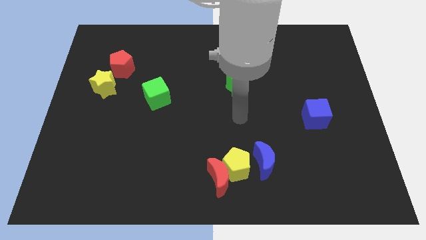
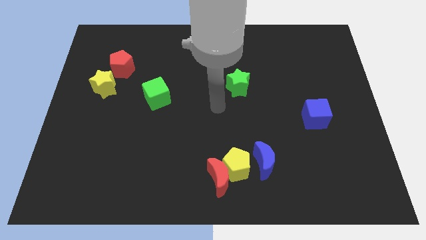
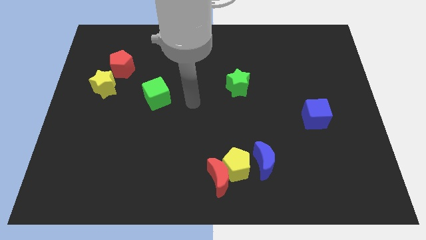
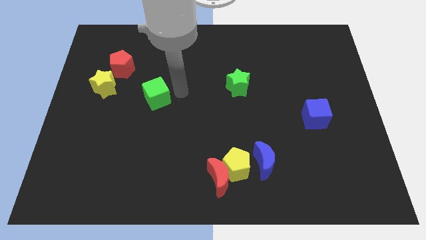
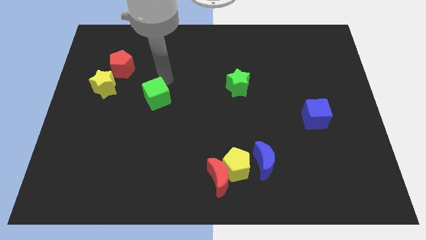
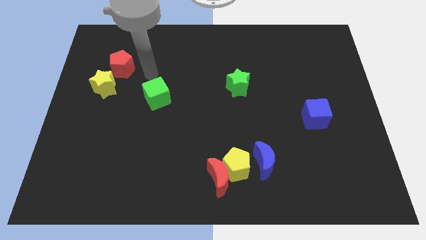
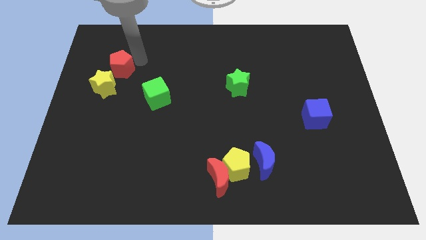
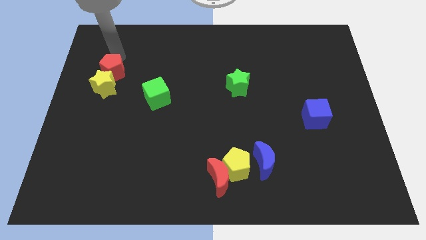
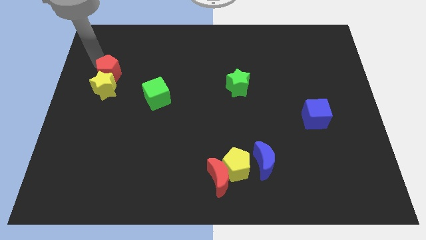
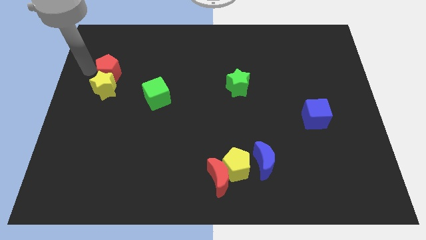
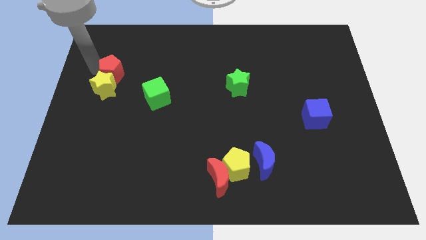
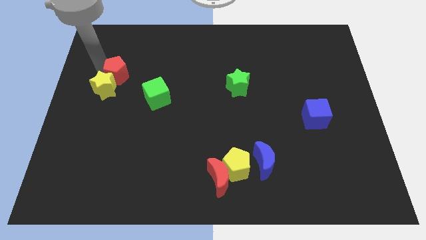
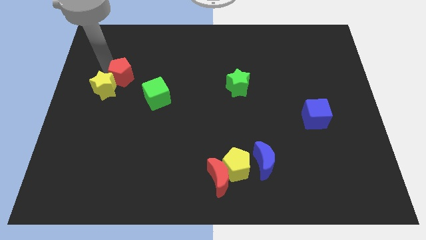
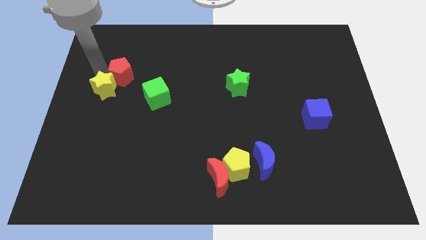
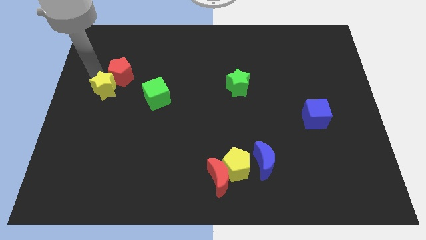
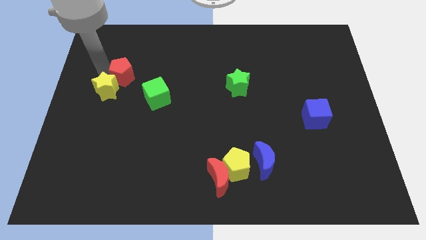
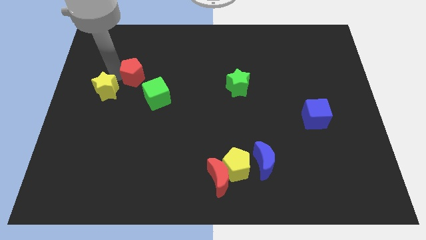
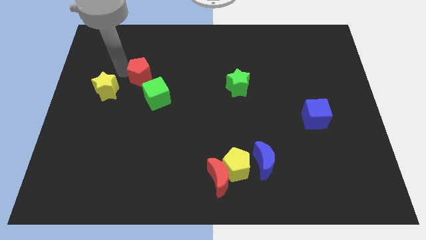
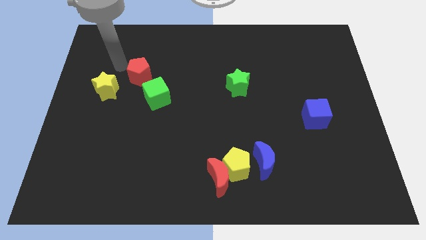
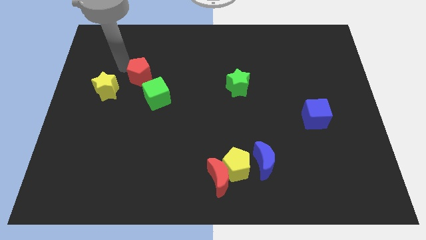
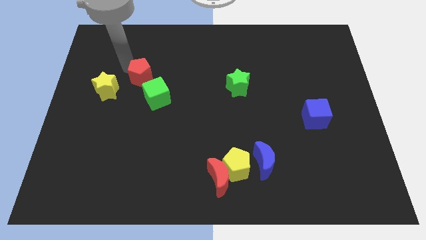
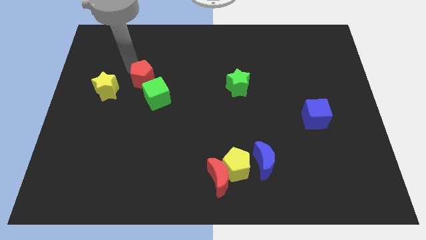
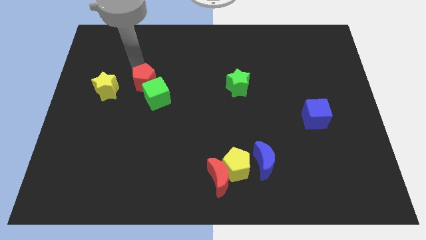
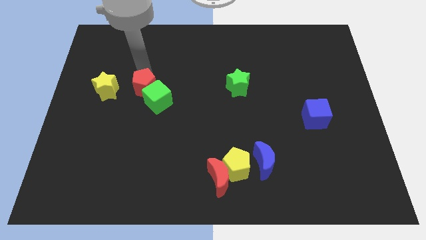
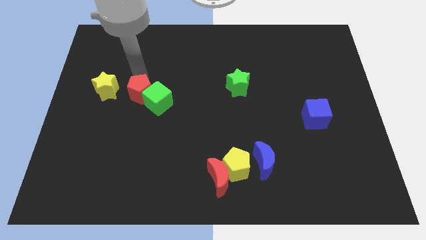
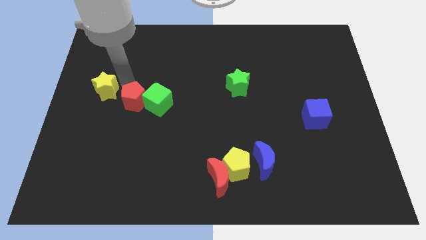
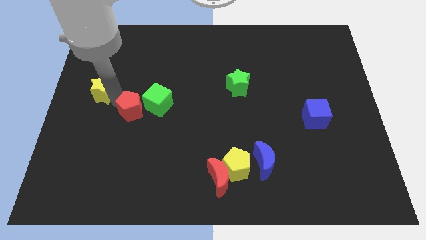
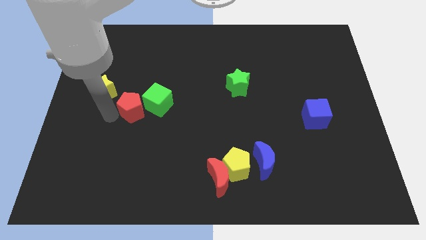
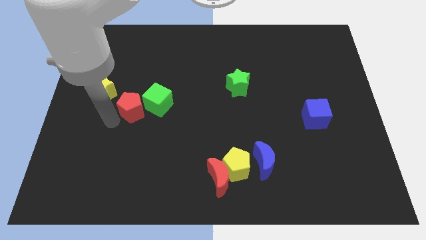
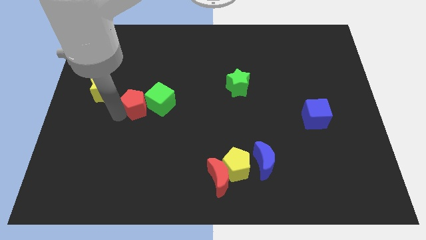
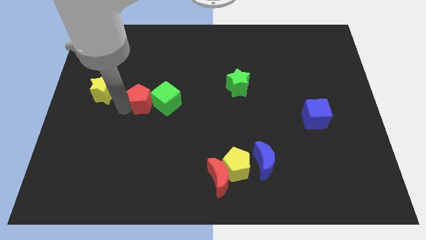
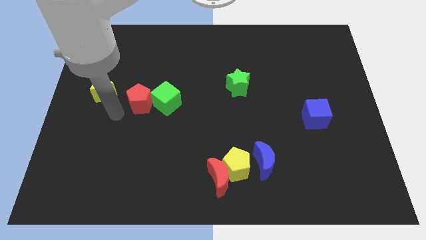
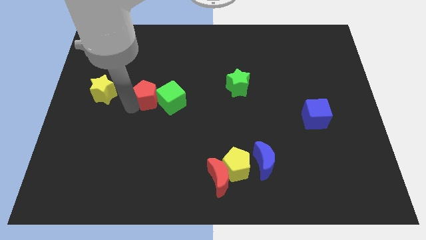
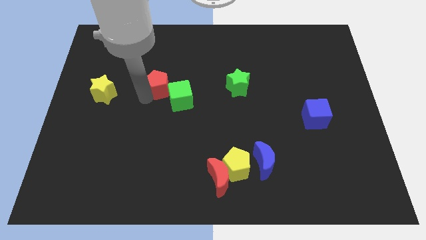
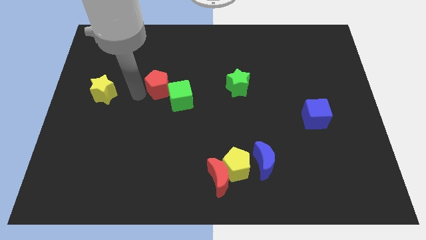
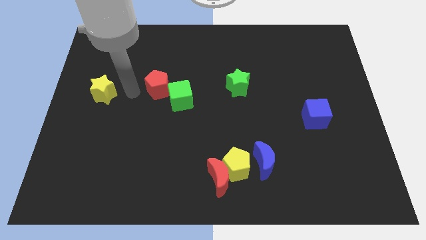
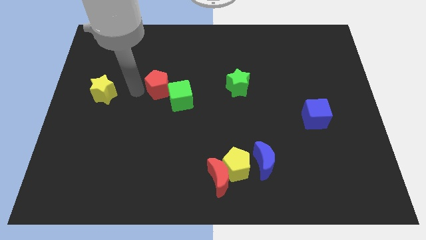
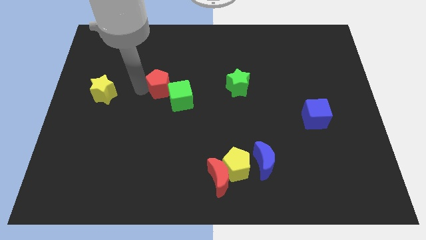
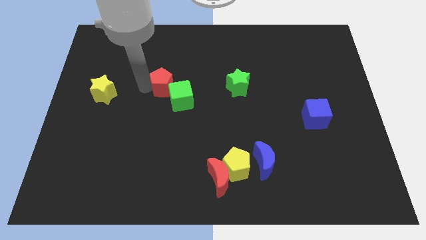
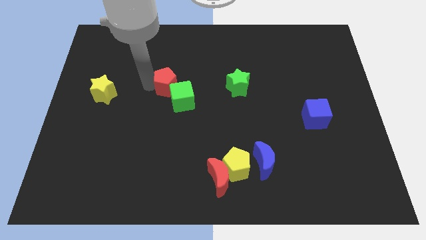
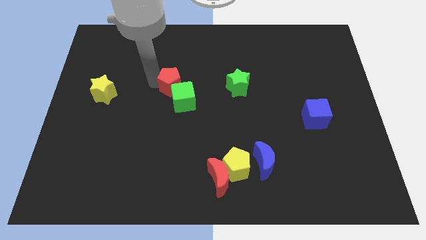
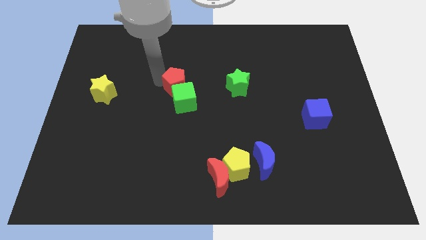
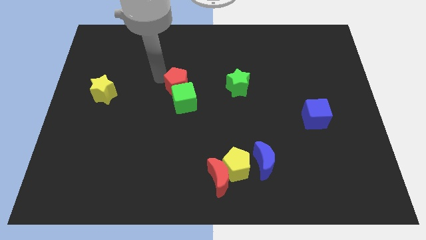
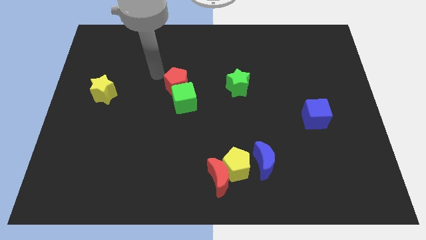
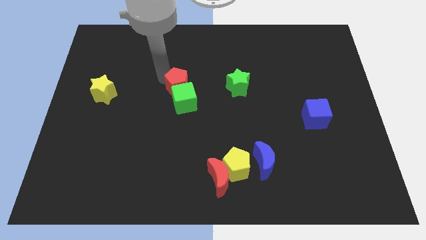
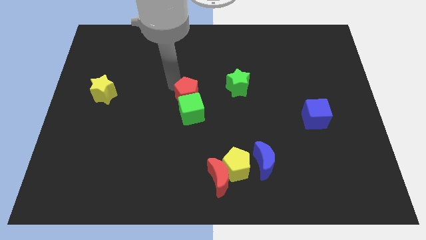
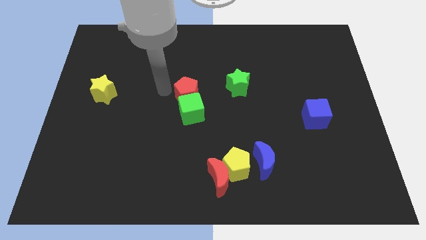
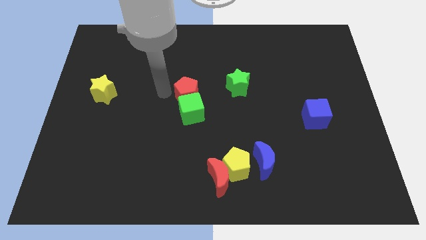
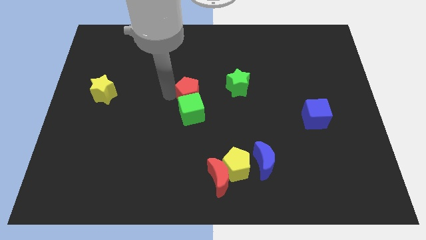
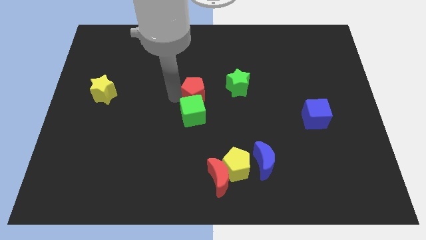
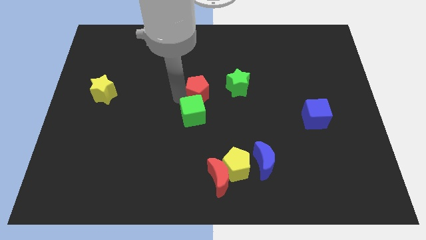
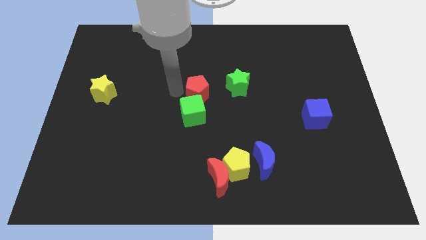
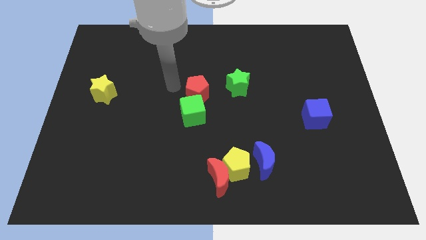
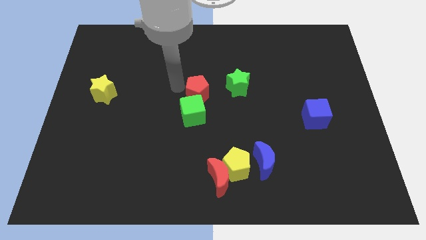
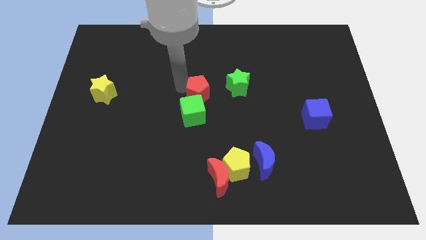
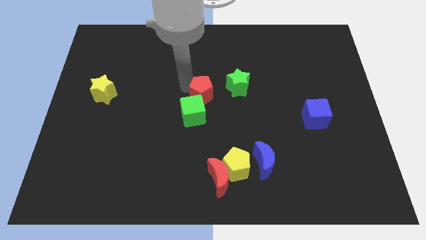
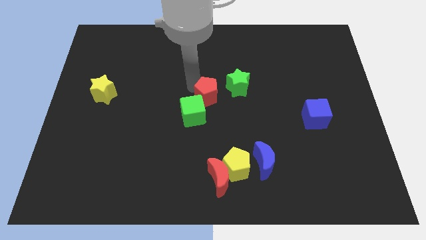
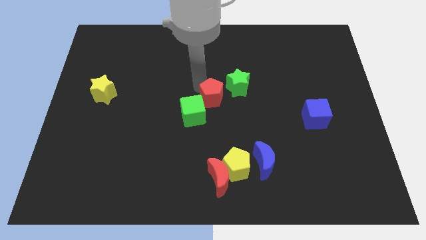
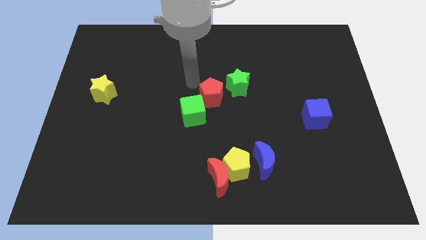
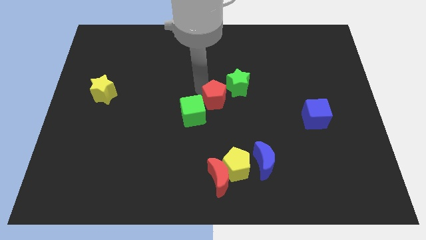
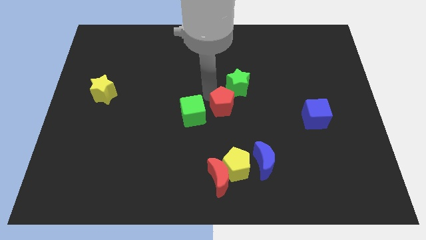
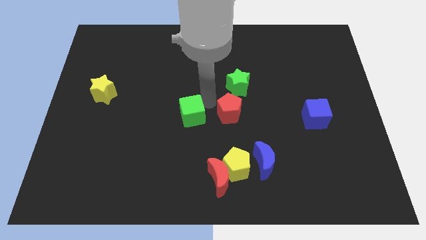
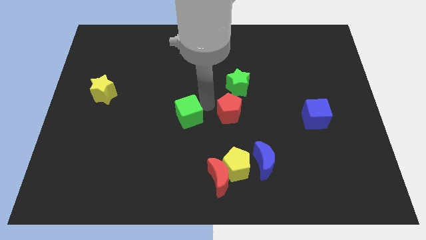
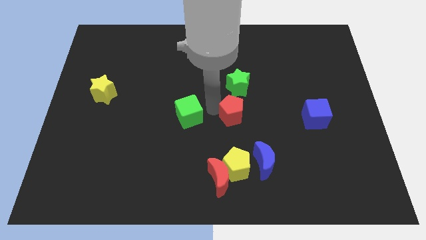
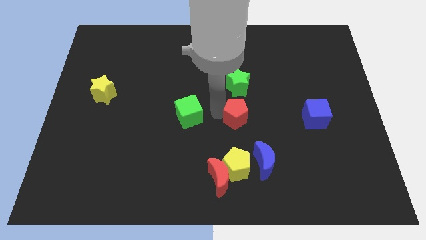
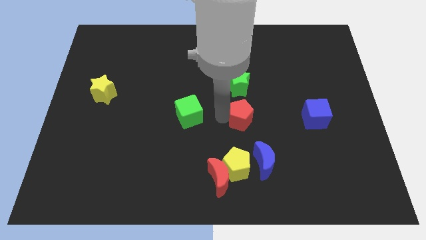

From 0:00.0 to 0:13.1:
slide the red pentagon to the top of the blue moon

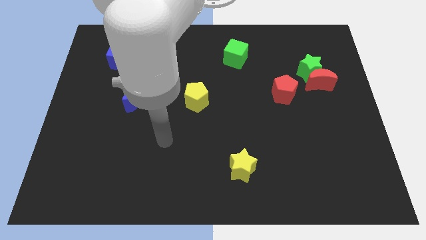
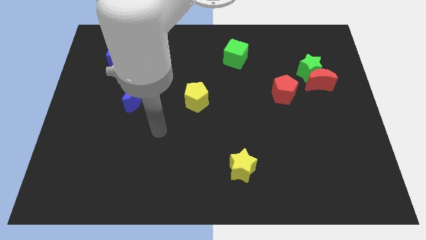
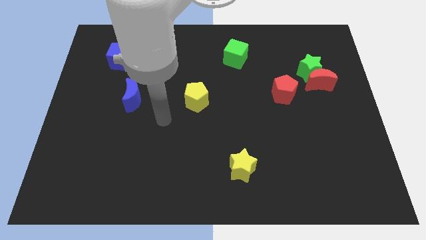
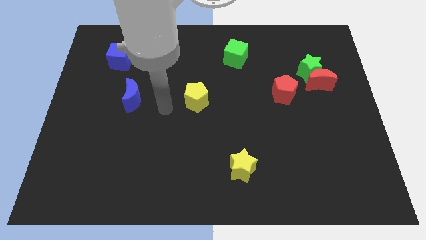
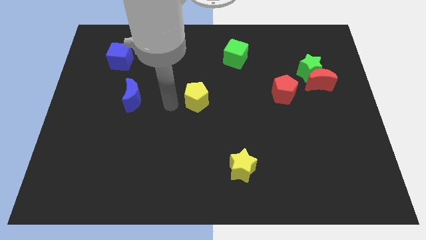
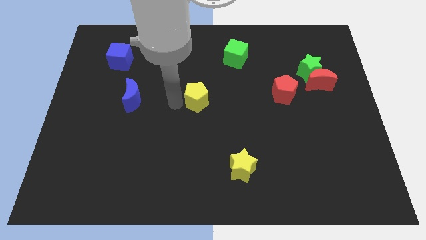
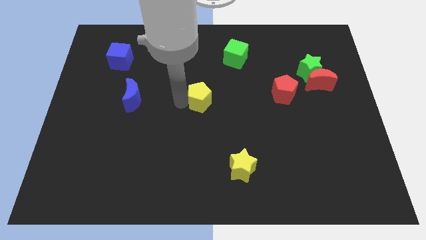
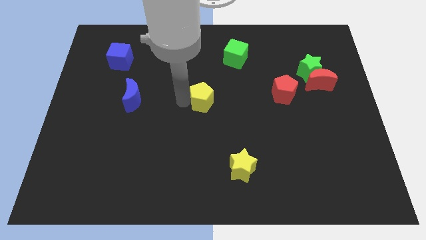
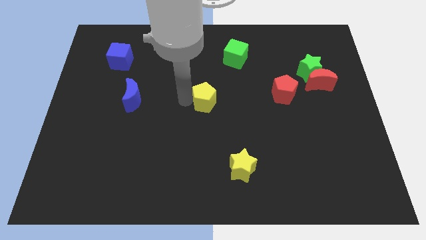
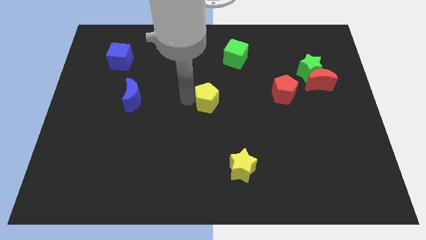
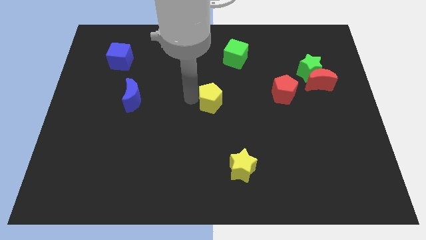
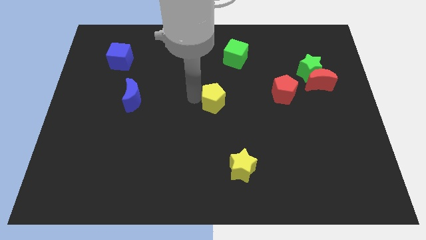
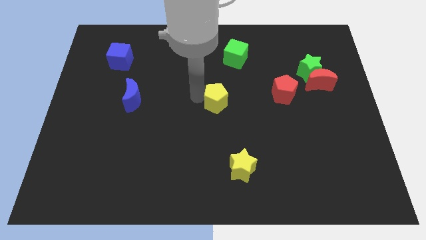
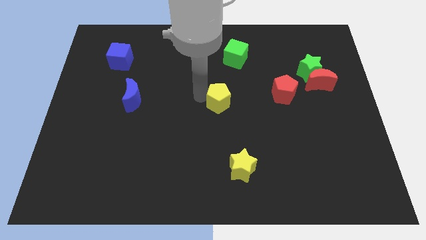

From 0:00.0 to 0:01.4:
slide the yellow pentagon to the left side of the red pentagon
